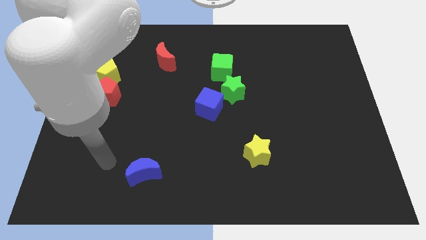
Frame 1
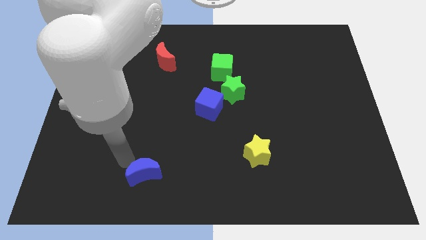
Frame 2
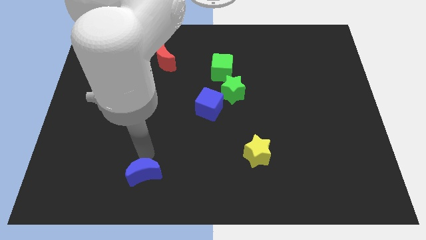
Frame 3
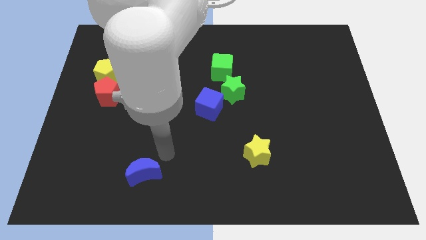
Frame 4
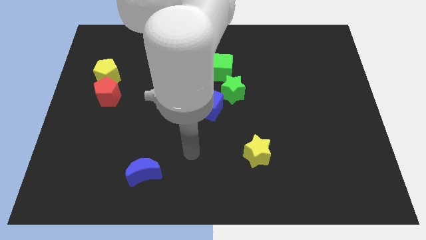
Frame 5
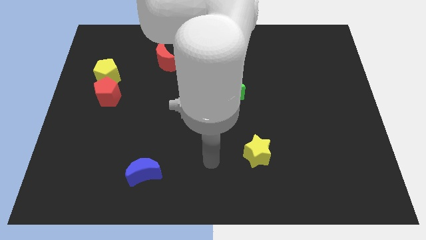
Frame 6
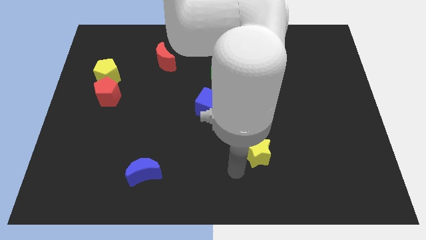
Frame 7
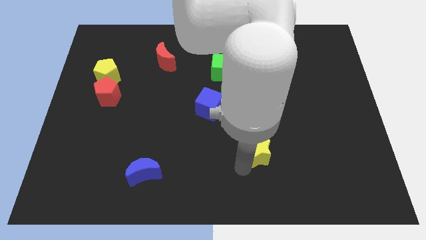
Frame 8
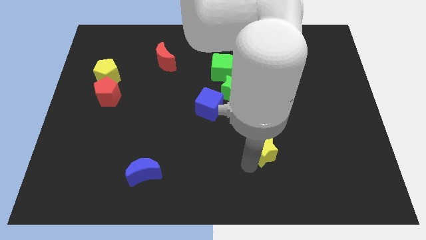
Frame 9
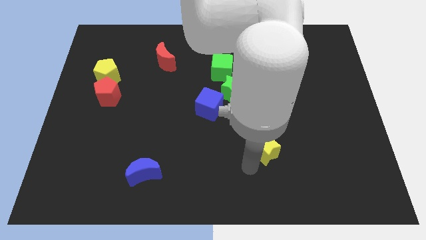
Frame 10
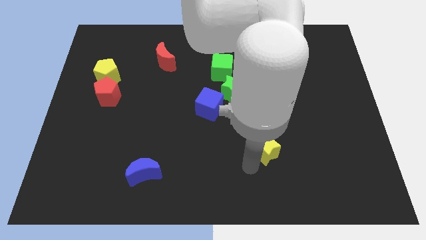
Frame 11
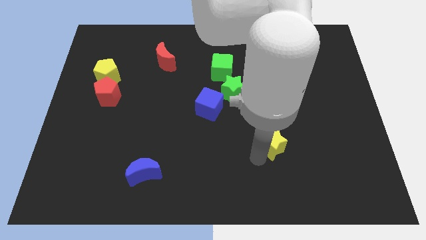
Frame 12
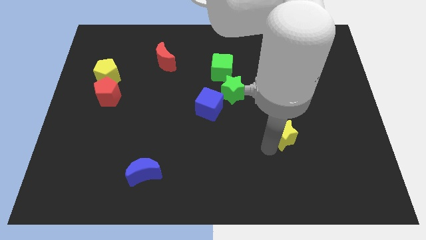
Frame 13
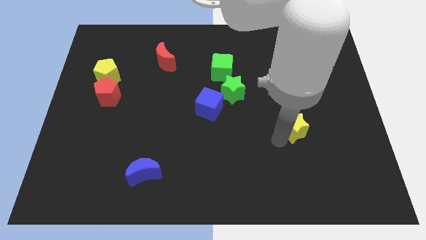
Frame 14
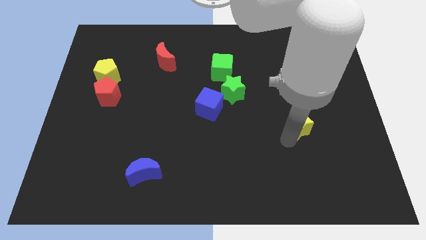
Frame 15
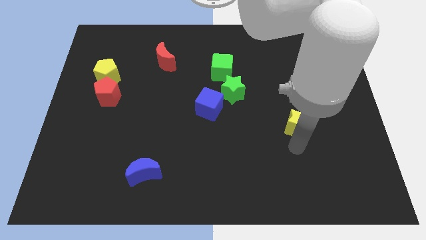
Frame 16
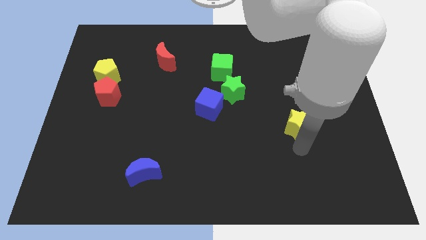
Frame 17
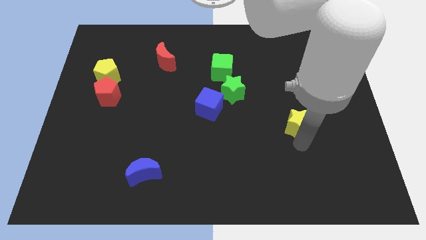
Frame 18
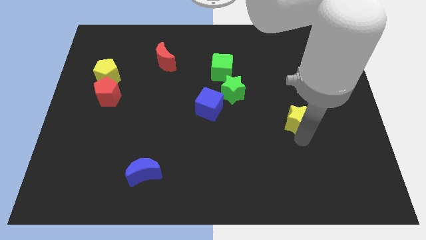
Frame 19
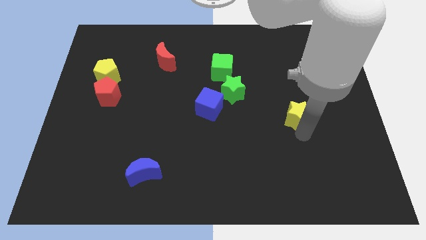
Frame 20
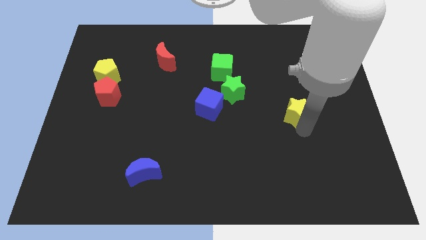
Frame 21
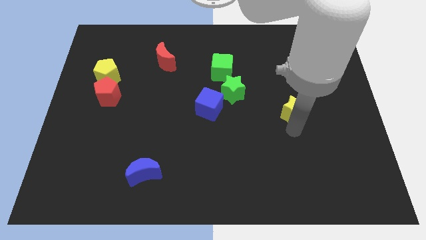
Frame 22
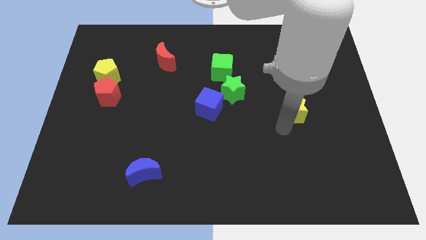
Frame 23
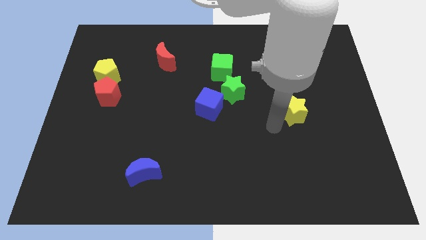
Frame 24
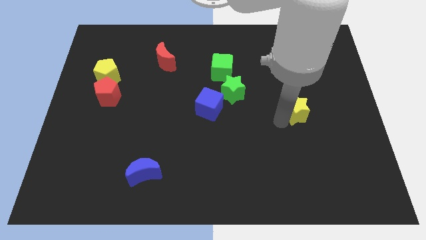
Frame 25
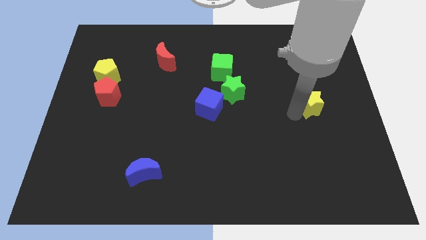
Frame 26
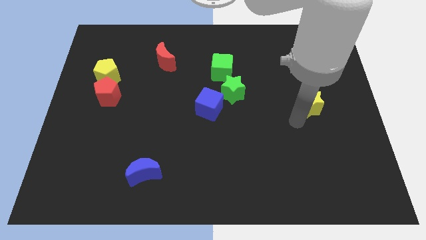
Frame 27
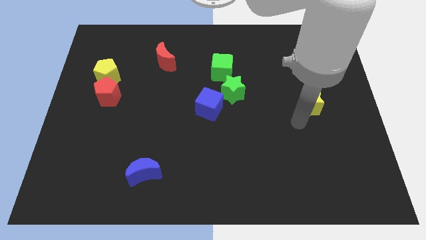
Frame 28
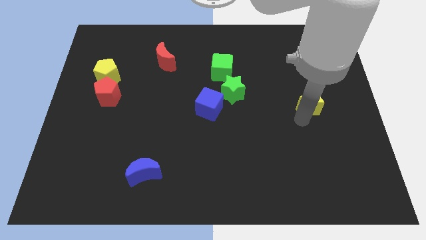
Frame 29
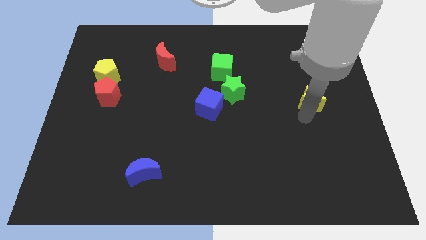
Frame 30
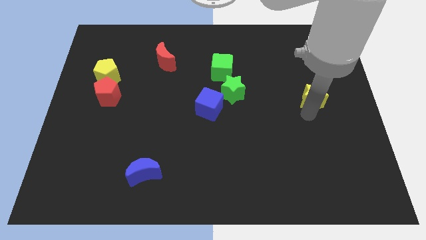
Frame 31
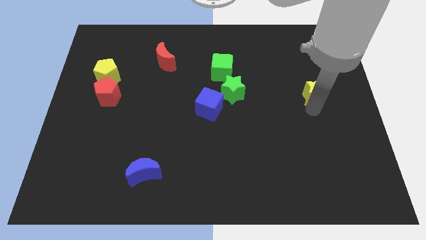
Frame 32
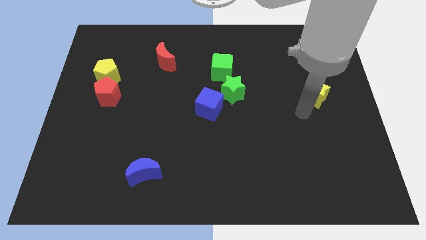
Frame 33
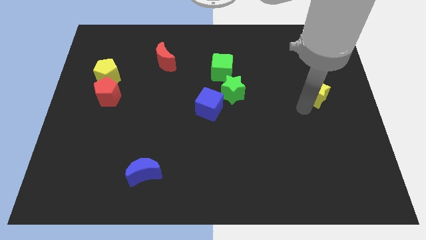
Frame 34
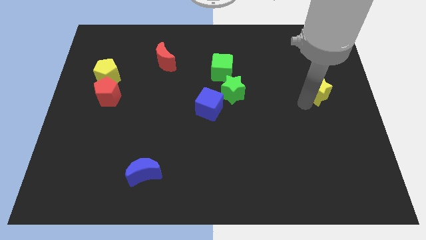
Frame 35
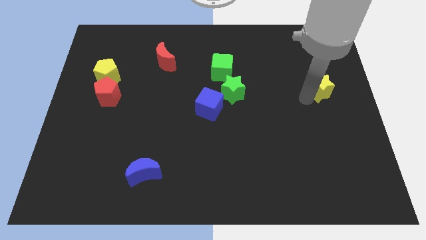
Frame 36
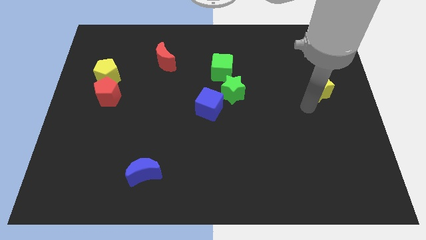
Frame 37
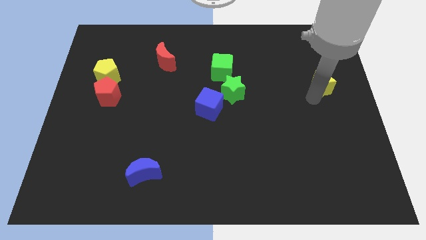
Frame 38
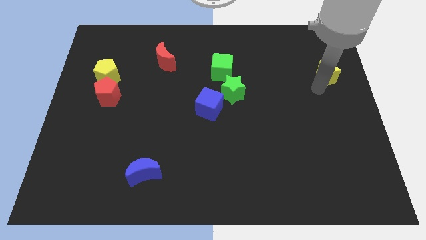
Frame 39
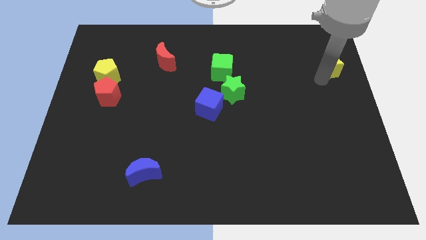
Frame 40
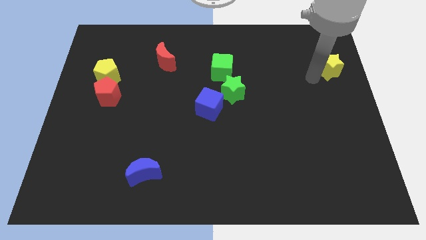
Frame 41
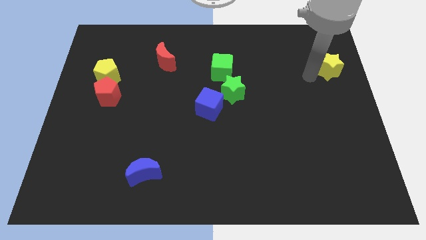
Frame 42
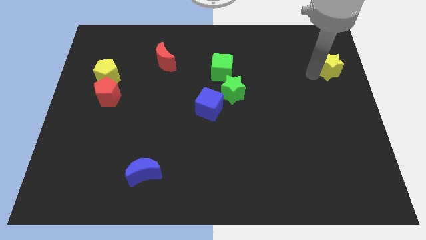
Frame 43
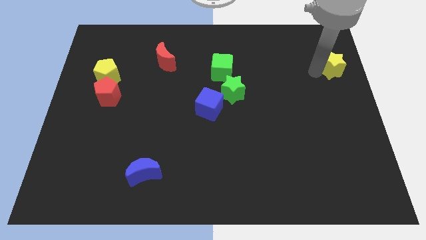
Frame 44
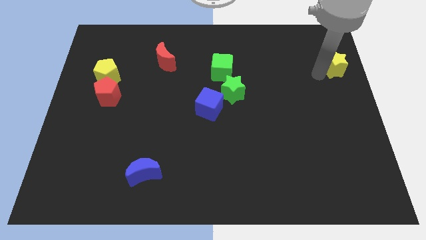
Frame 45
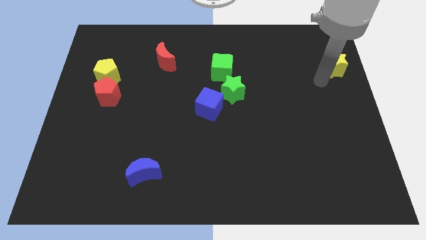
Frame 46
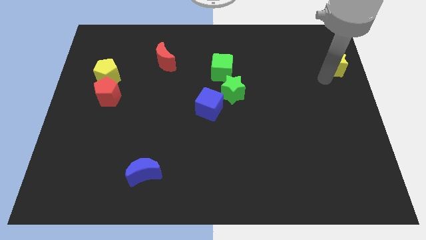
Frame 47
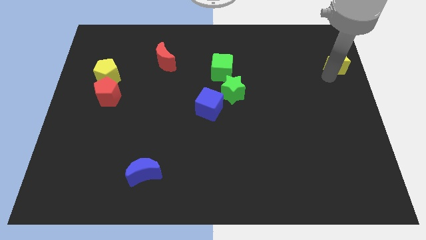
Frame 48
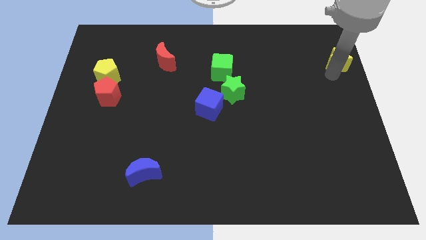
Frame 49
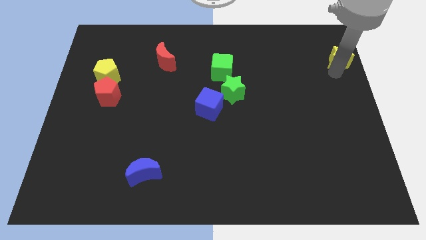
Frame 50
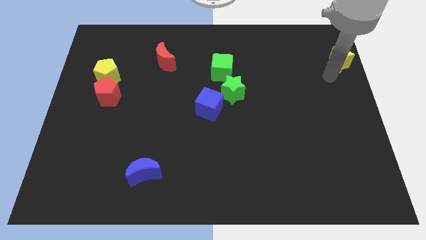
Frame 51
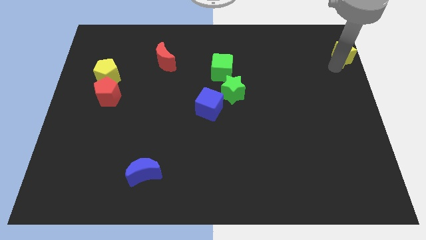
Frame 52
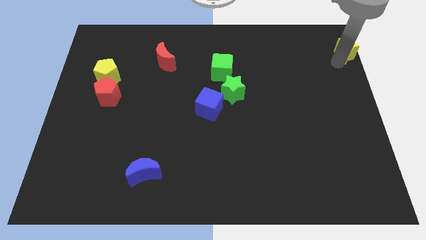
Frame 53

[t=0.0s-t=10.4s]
push the yellow star to the top right

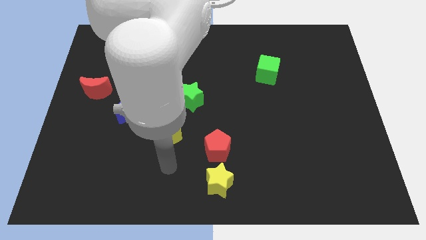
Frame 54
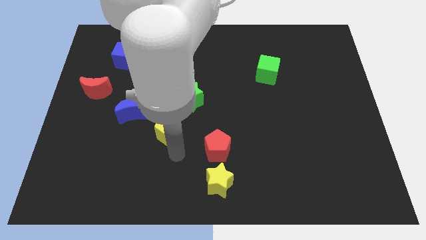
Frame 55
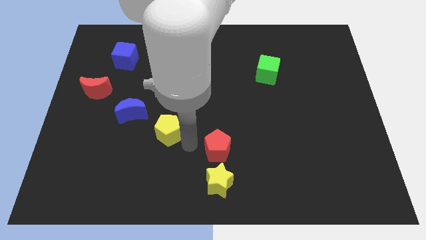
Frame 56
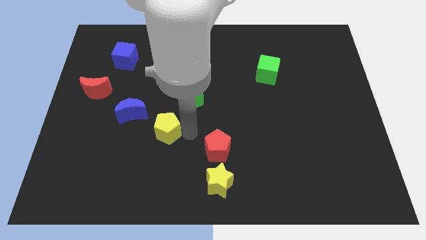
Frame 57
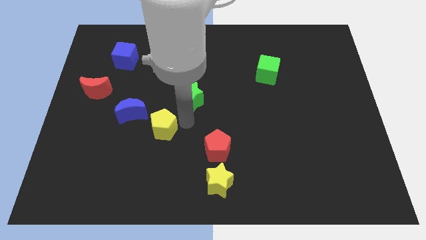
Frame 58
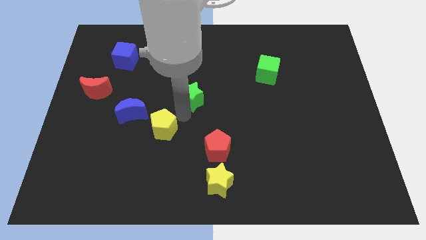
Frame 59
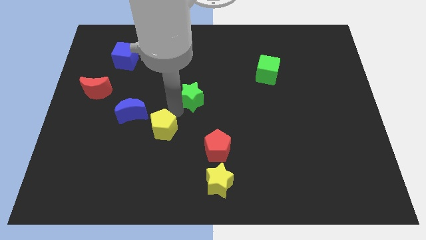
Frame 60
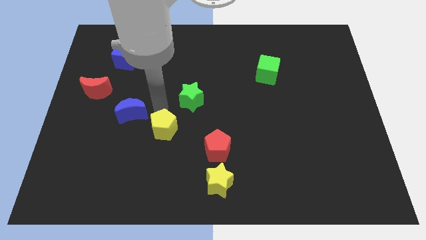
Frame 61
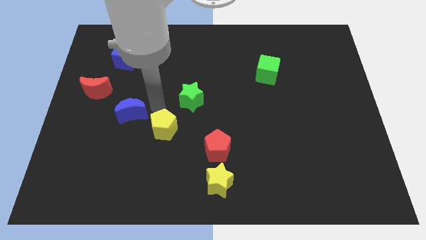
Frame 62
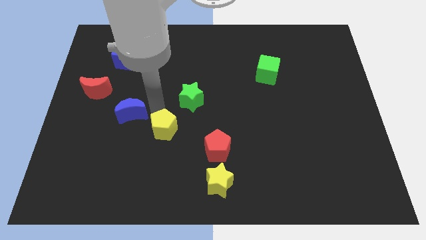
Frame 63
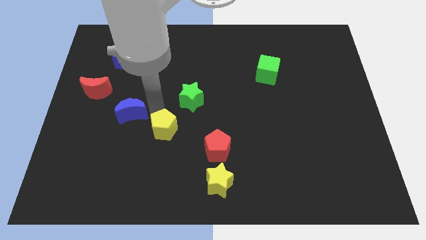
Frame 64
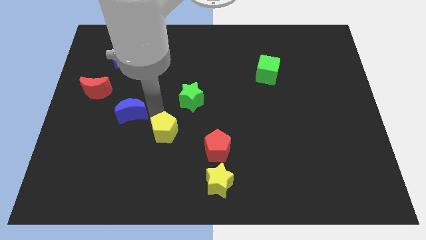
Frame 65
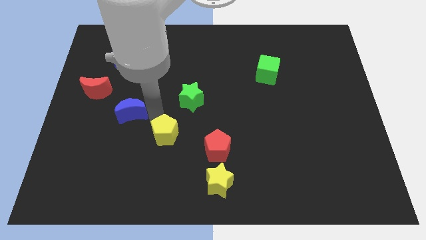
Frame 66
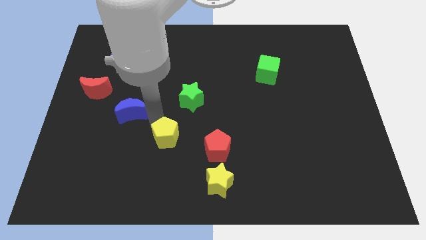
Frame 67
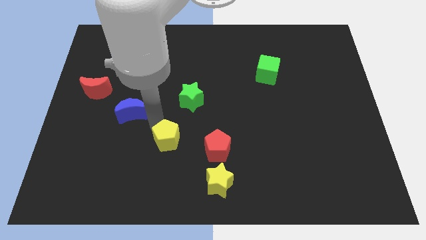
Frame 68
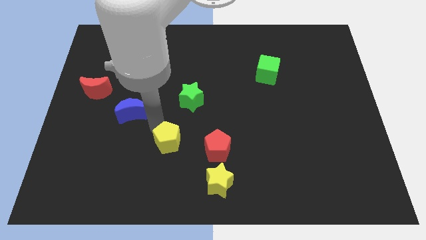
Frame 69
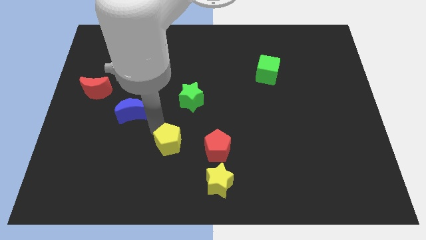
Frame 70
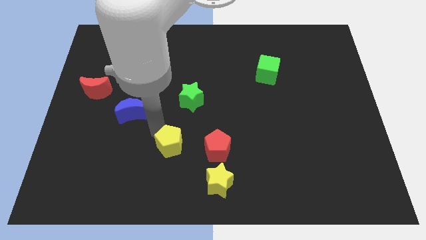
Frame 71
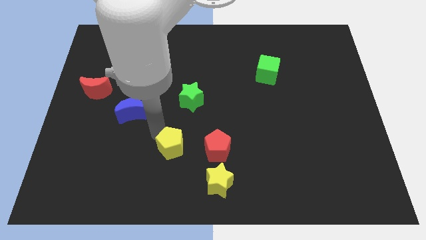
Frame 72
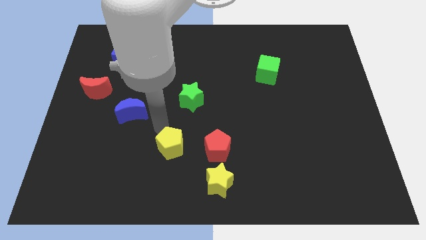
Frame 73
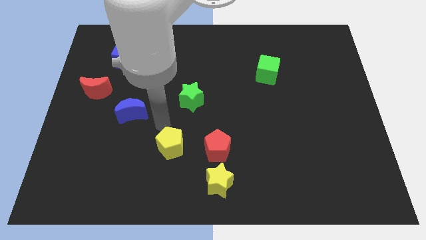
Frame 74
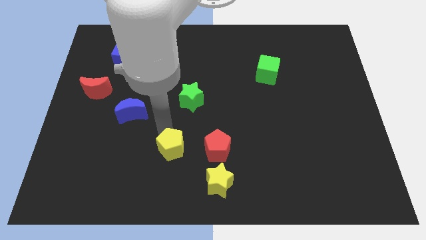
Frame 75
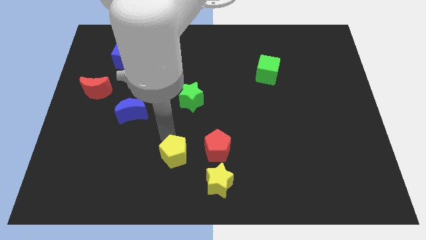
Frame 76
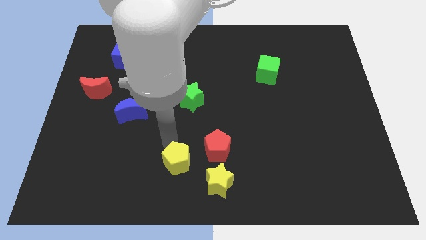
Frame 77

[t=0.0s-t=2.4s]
slide the yellow pentagon to the bottom
